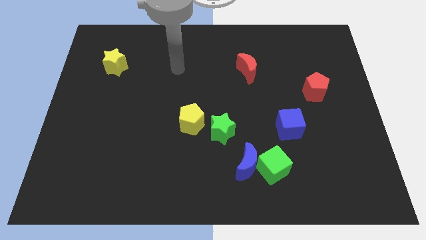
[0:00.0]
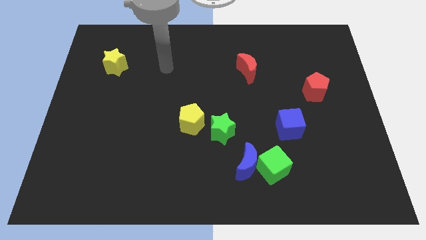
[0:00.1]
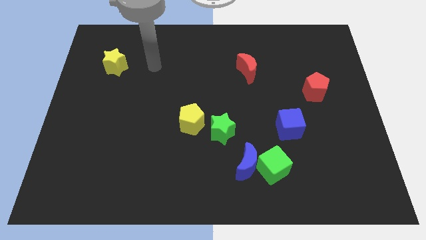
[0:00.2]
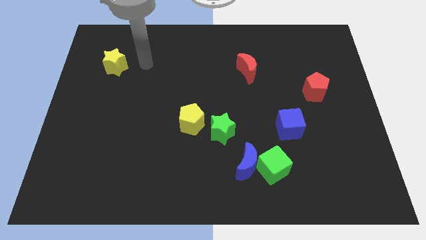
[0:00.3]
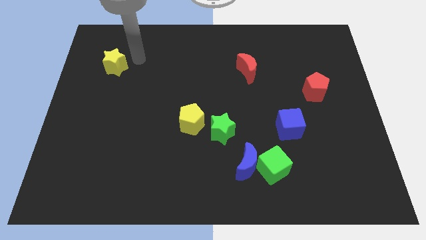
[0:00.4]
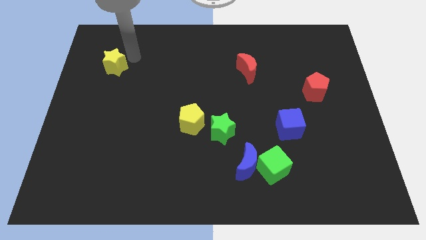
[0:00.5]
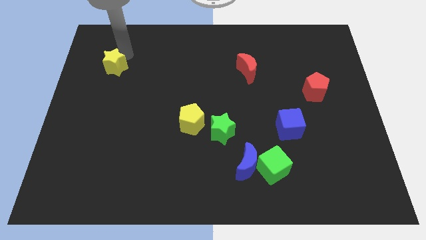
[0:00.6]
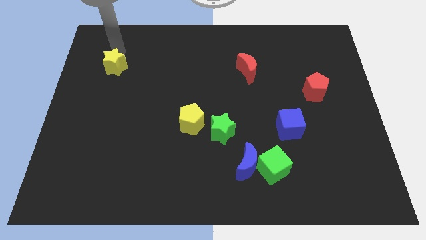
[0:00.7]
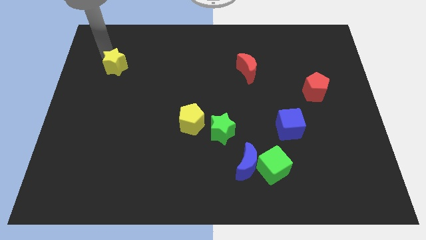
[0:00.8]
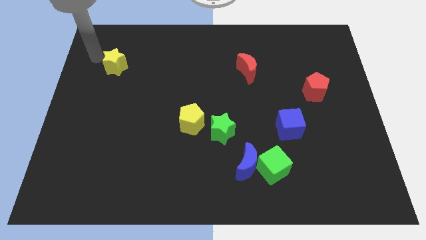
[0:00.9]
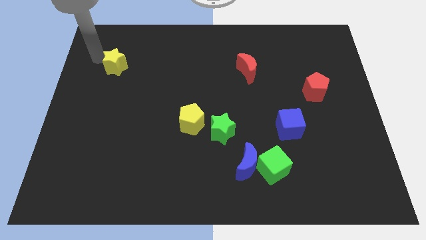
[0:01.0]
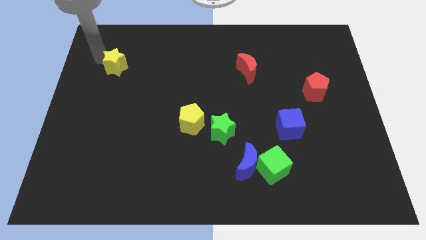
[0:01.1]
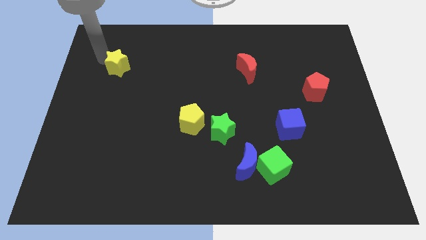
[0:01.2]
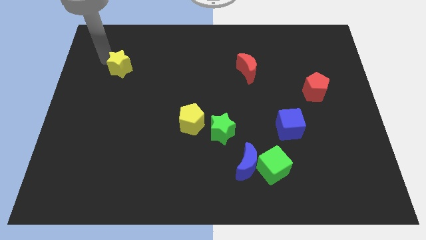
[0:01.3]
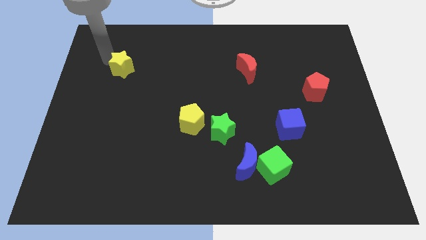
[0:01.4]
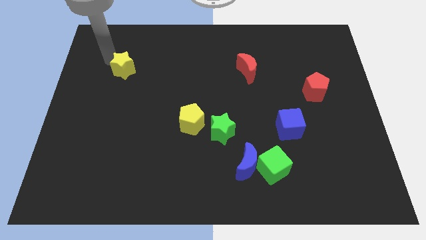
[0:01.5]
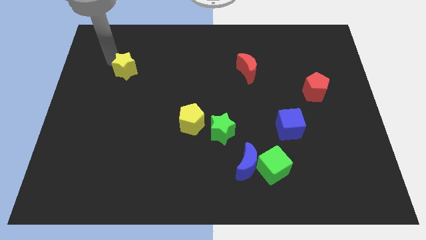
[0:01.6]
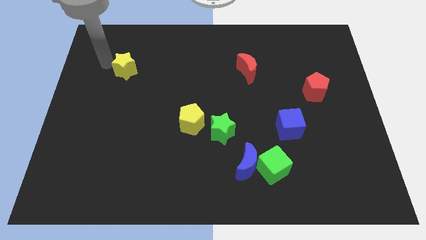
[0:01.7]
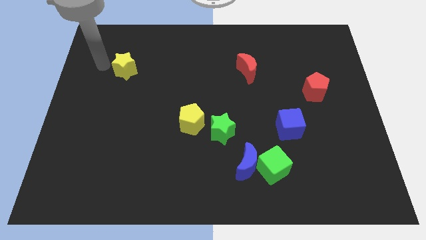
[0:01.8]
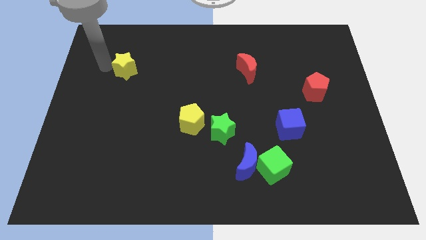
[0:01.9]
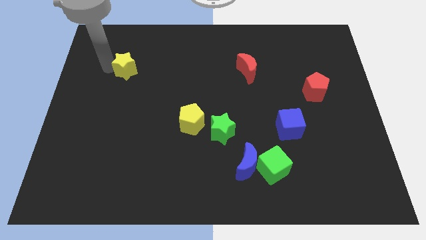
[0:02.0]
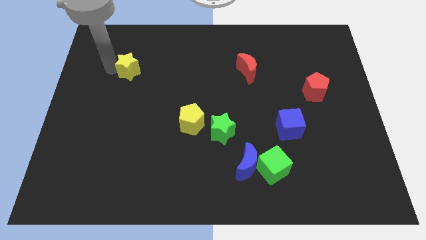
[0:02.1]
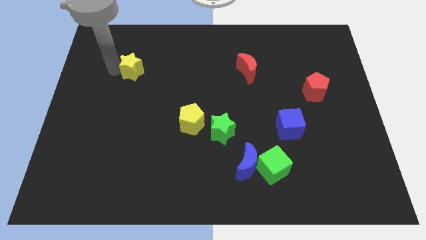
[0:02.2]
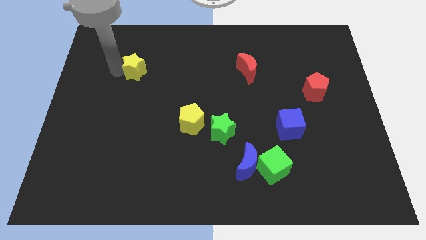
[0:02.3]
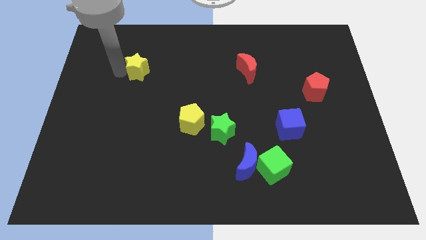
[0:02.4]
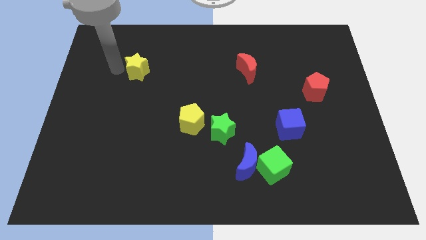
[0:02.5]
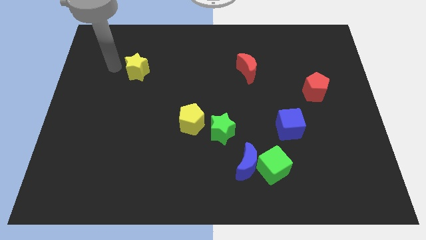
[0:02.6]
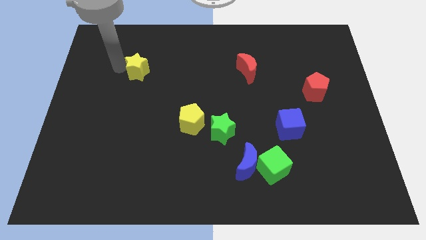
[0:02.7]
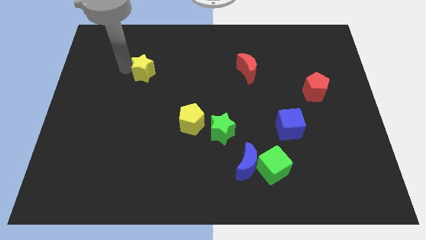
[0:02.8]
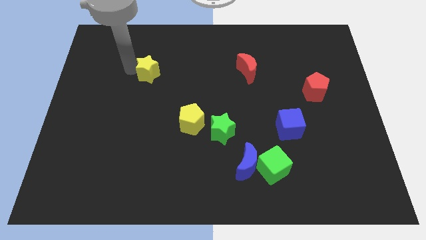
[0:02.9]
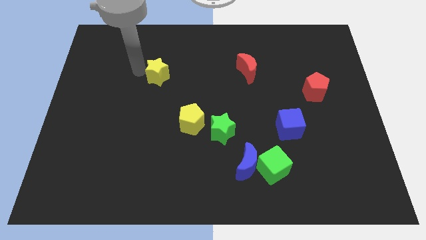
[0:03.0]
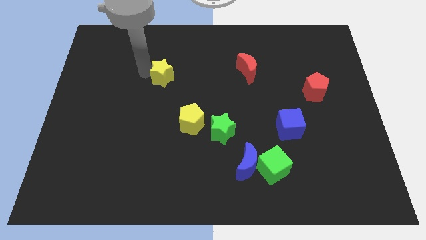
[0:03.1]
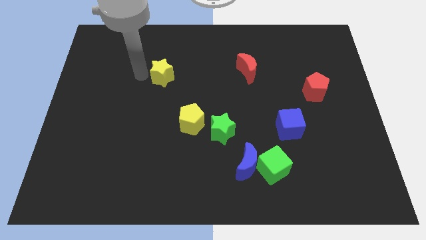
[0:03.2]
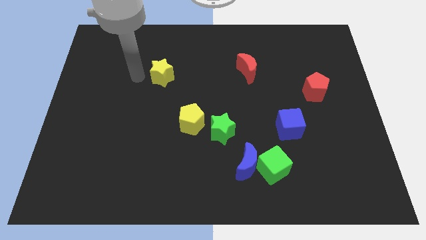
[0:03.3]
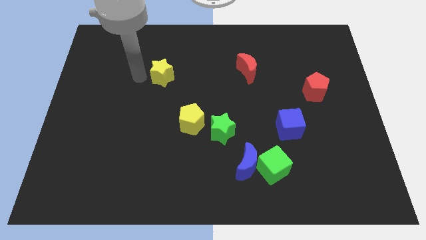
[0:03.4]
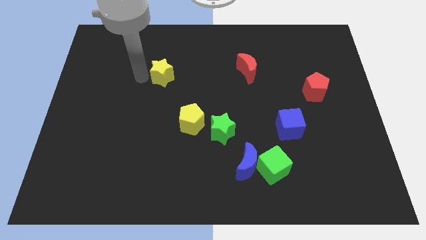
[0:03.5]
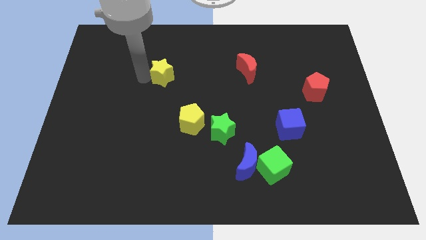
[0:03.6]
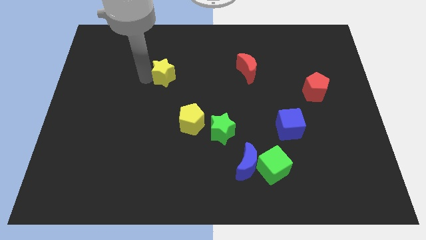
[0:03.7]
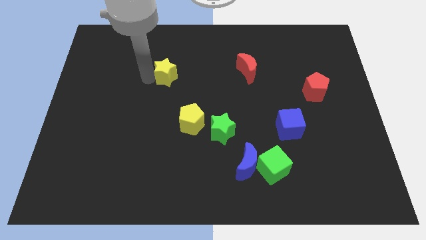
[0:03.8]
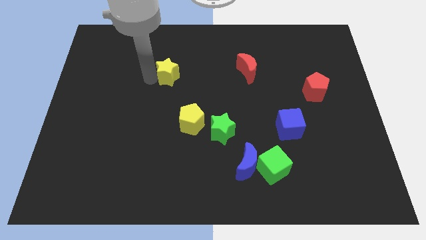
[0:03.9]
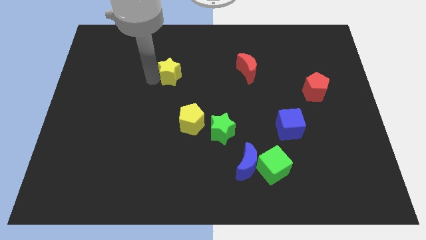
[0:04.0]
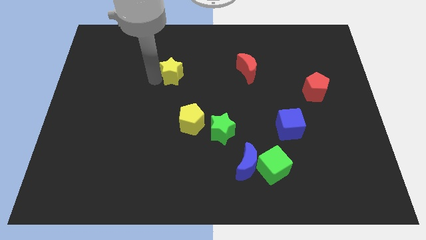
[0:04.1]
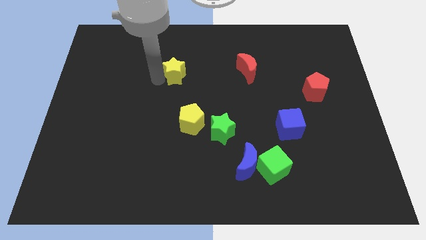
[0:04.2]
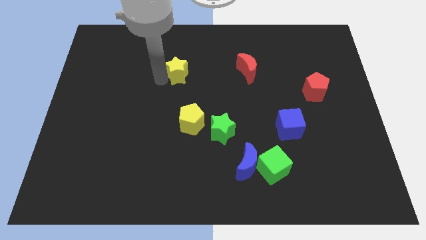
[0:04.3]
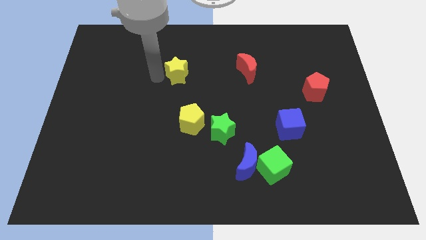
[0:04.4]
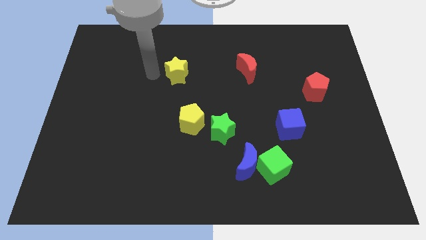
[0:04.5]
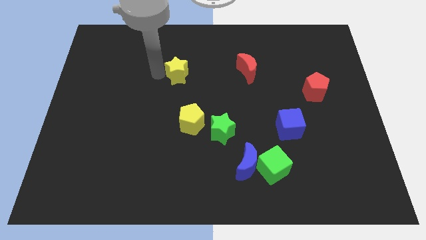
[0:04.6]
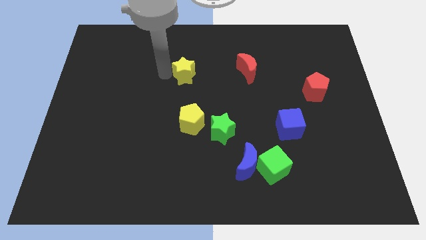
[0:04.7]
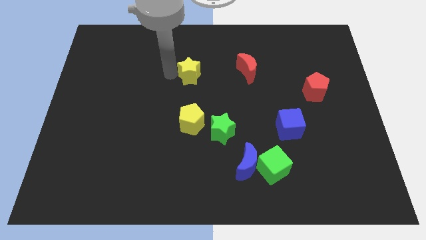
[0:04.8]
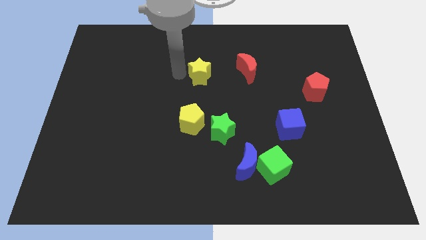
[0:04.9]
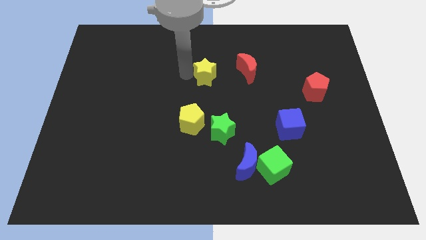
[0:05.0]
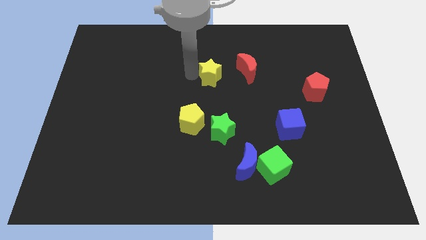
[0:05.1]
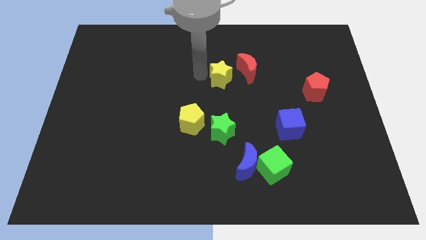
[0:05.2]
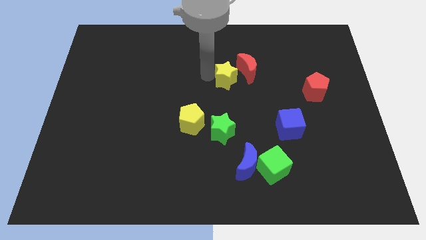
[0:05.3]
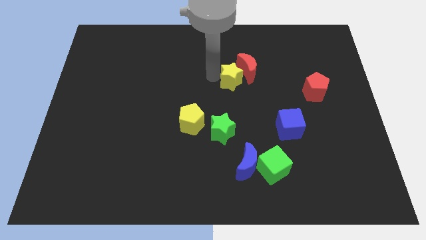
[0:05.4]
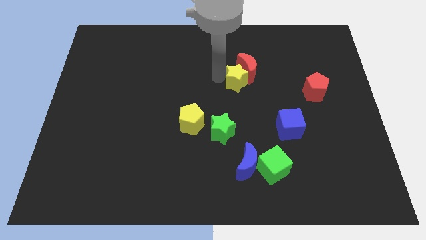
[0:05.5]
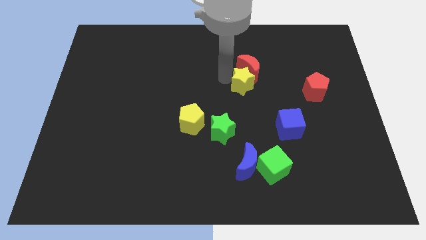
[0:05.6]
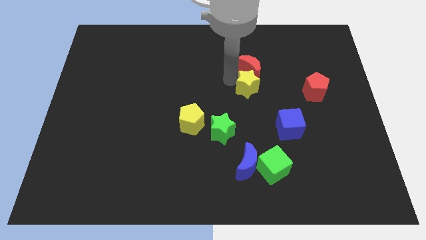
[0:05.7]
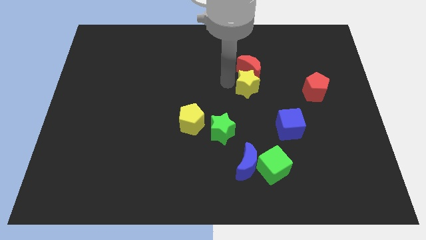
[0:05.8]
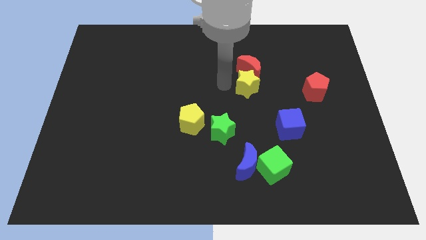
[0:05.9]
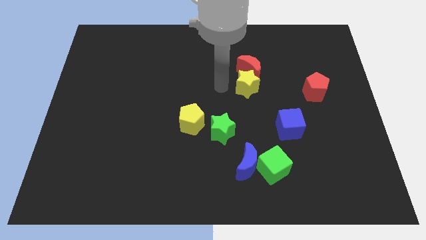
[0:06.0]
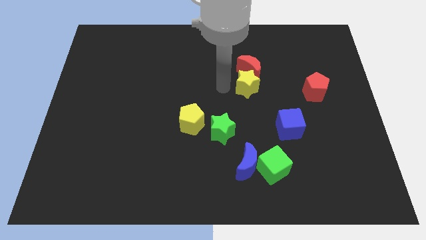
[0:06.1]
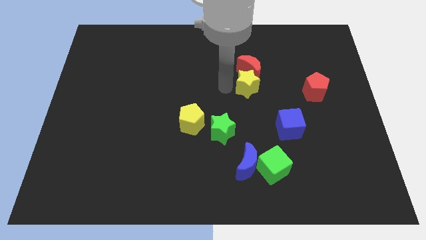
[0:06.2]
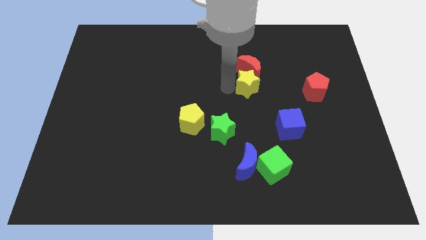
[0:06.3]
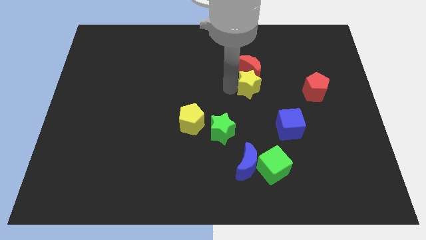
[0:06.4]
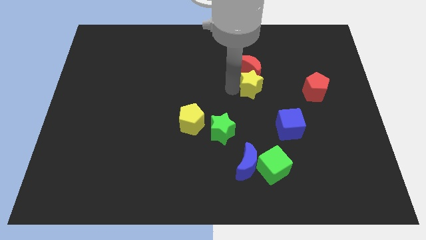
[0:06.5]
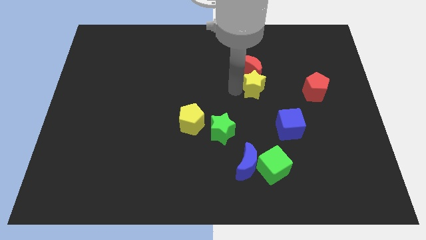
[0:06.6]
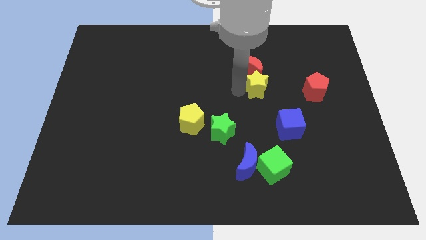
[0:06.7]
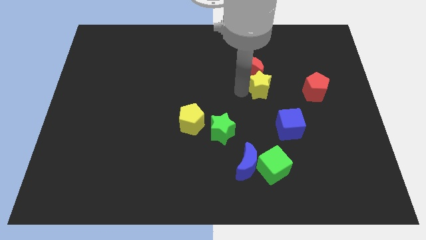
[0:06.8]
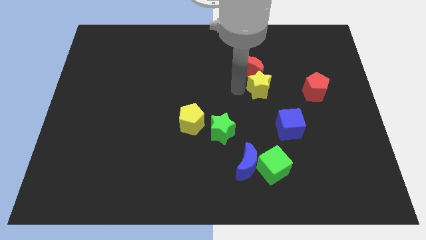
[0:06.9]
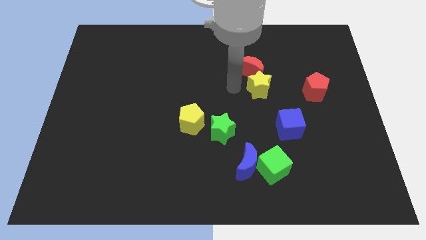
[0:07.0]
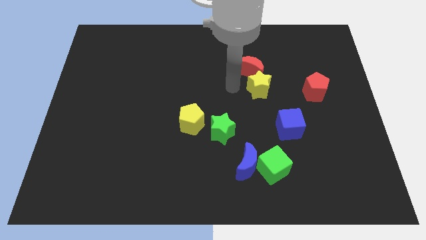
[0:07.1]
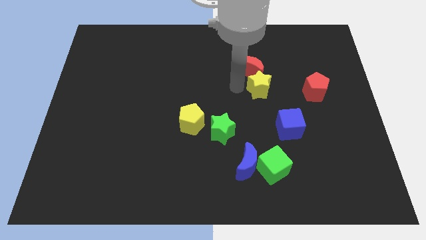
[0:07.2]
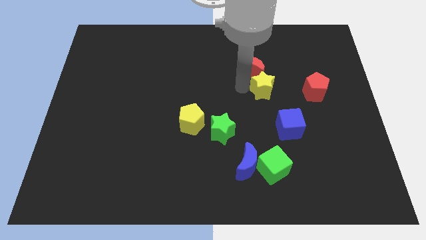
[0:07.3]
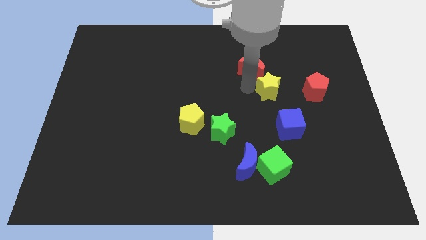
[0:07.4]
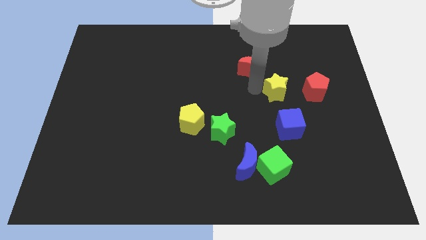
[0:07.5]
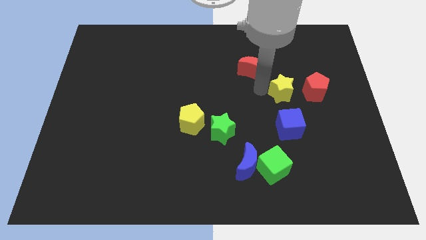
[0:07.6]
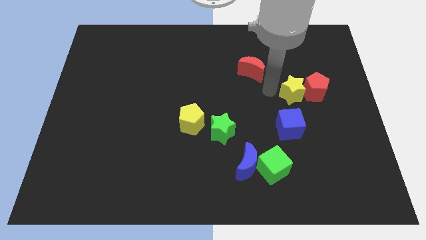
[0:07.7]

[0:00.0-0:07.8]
move the yellow star next to the red pentagon
